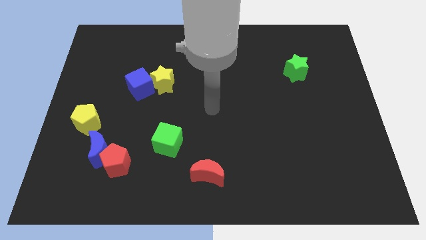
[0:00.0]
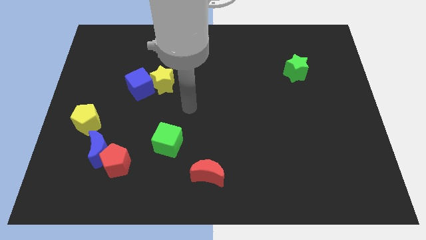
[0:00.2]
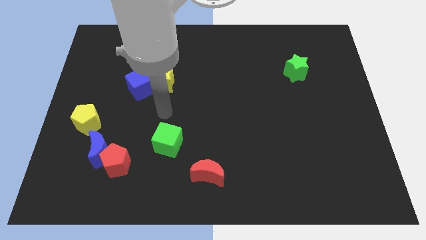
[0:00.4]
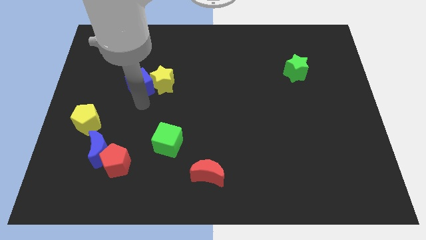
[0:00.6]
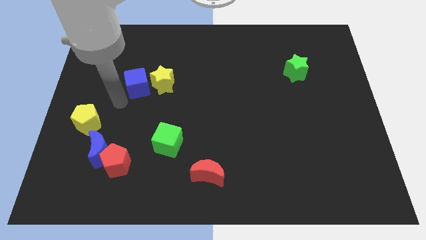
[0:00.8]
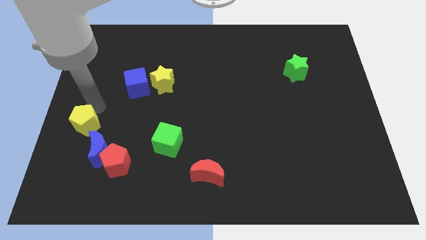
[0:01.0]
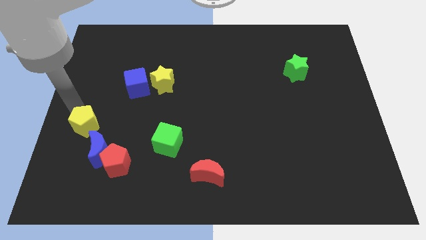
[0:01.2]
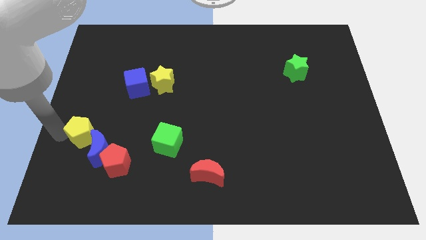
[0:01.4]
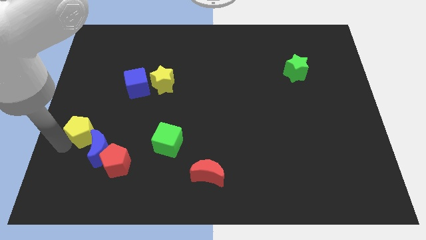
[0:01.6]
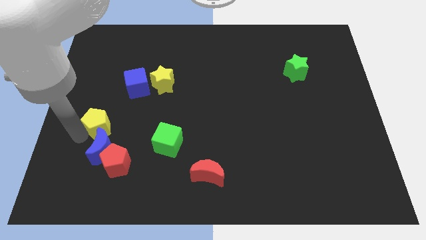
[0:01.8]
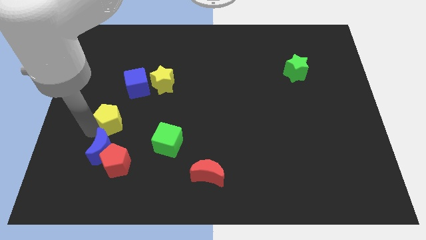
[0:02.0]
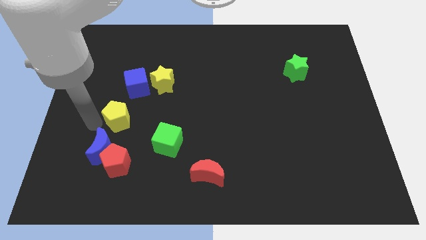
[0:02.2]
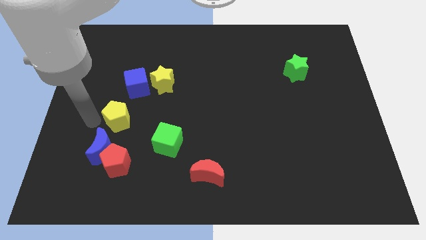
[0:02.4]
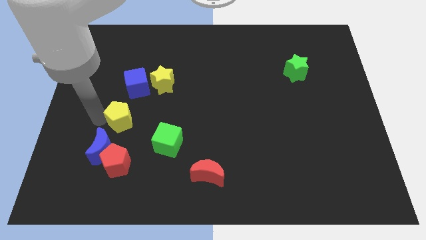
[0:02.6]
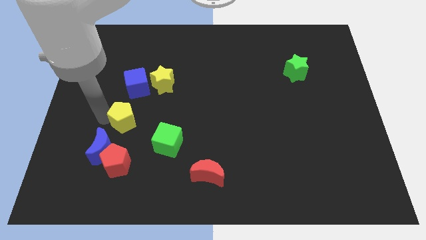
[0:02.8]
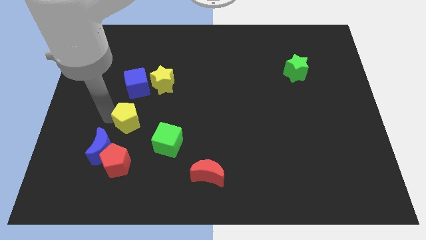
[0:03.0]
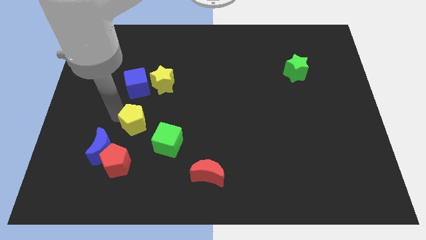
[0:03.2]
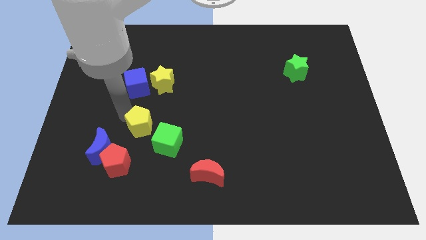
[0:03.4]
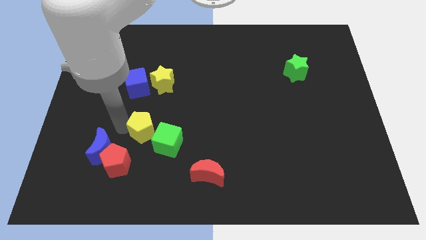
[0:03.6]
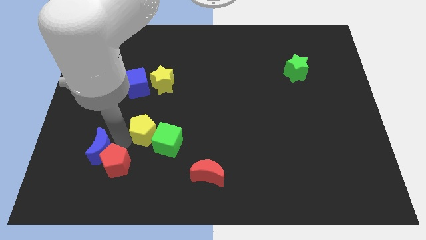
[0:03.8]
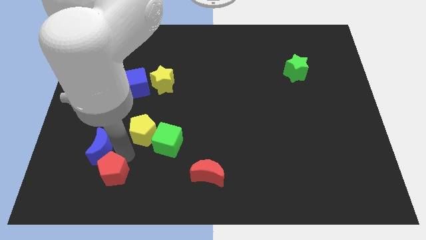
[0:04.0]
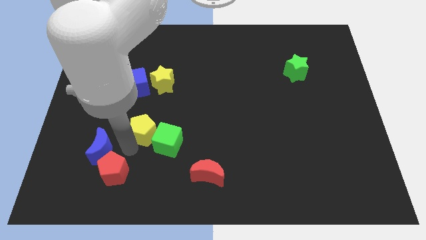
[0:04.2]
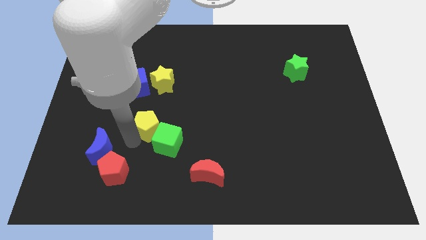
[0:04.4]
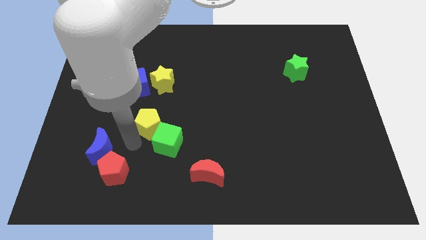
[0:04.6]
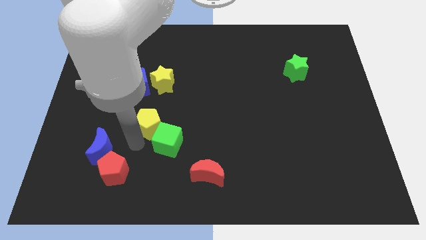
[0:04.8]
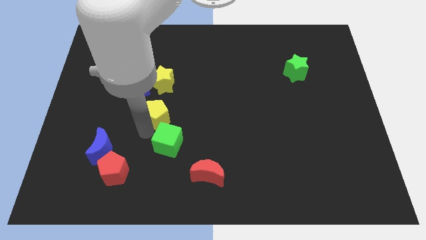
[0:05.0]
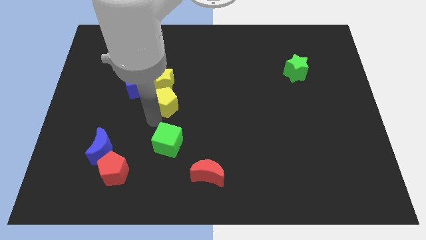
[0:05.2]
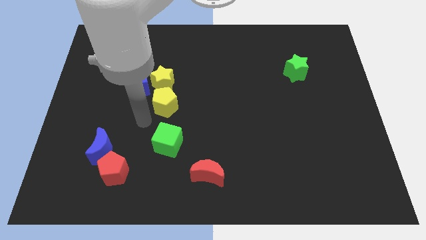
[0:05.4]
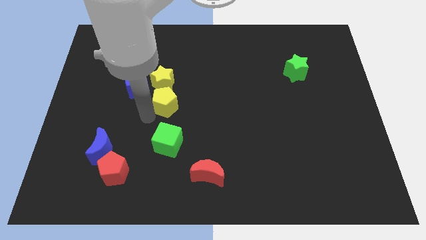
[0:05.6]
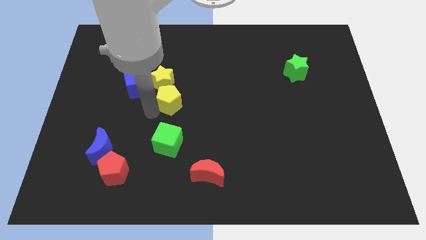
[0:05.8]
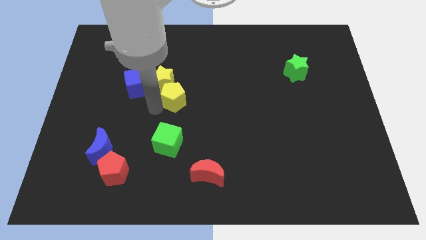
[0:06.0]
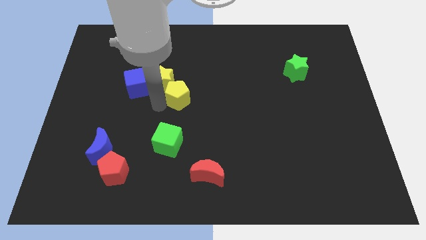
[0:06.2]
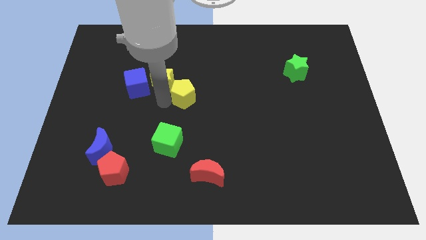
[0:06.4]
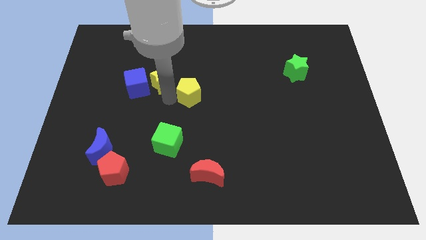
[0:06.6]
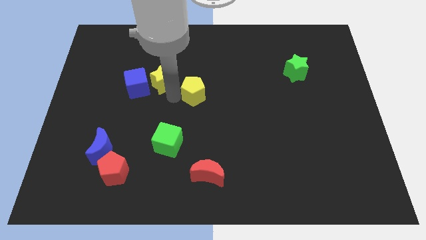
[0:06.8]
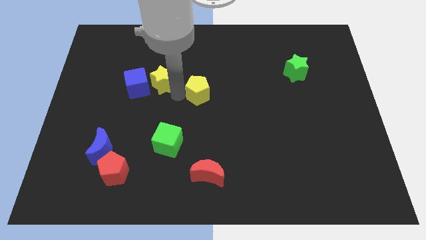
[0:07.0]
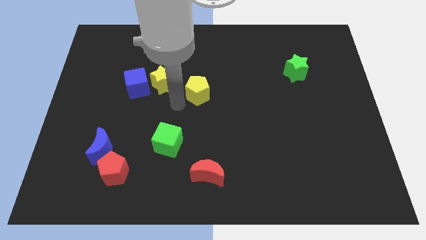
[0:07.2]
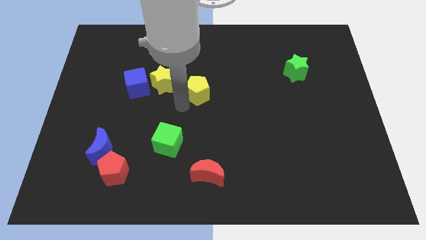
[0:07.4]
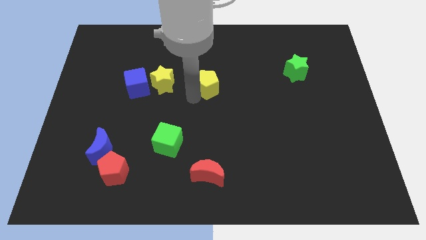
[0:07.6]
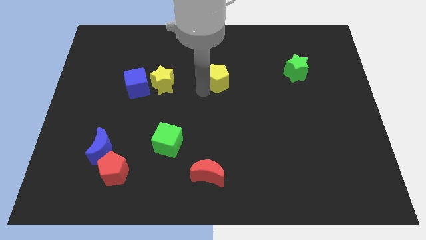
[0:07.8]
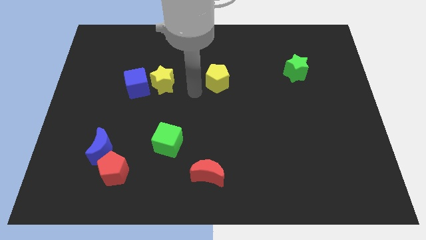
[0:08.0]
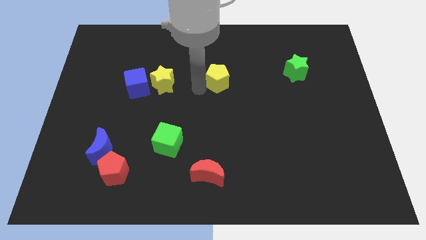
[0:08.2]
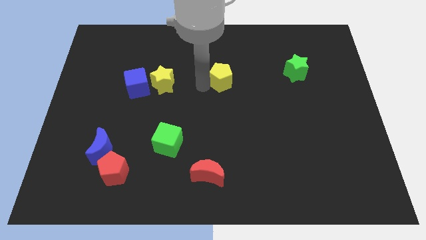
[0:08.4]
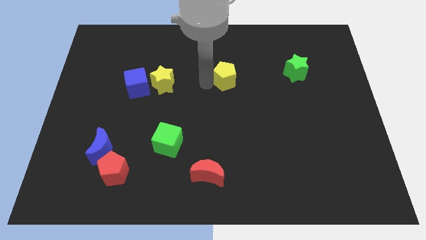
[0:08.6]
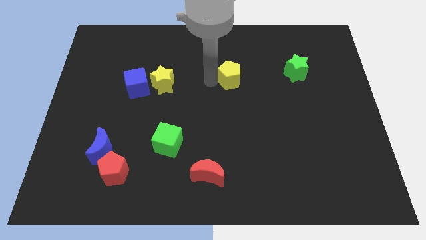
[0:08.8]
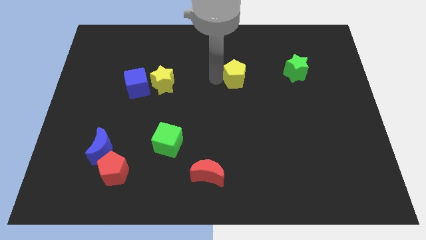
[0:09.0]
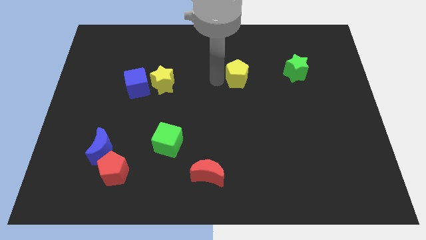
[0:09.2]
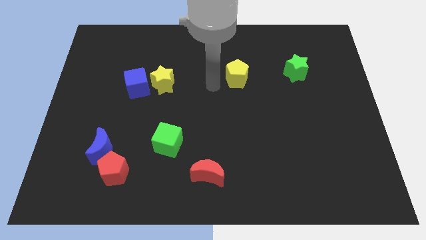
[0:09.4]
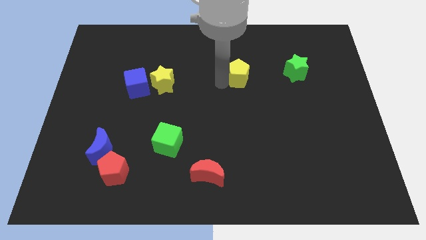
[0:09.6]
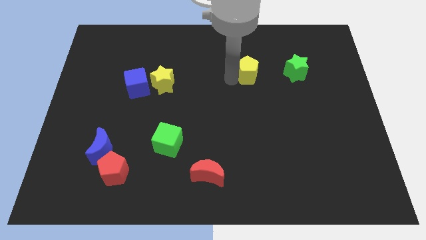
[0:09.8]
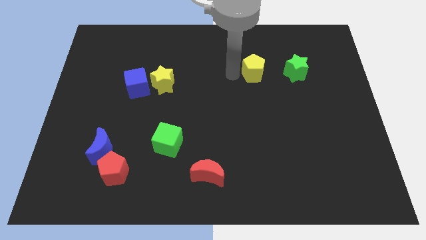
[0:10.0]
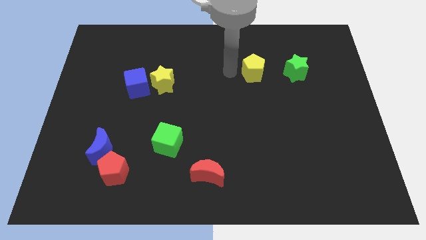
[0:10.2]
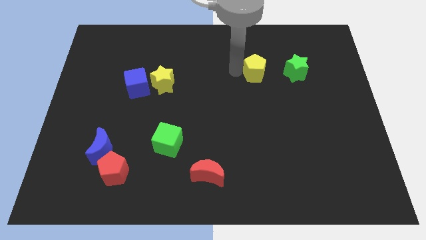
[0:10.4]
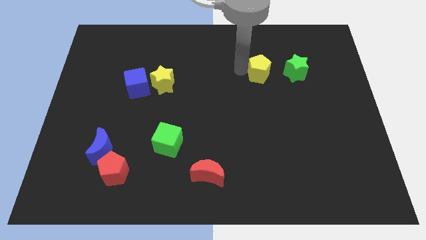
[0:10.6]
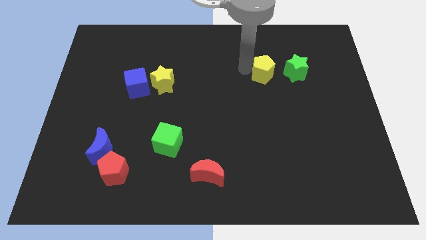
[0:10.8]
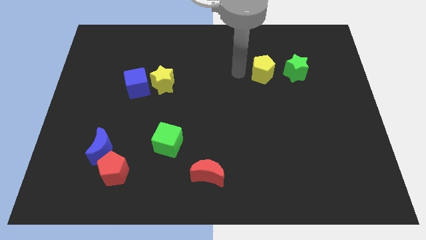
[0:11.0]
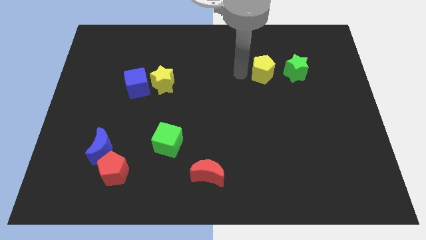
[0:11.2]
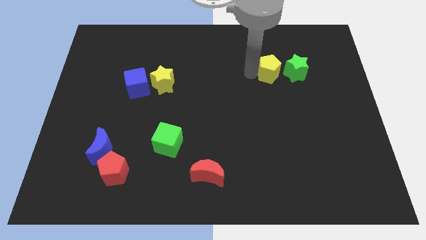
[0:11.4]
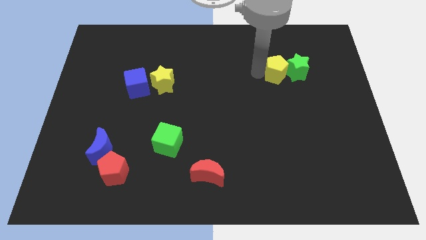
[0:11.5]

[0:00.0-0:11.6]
put the yellow pentagon close to the green star
